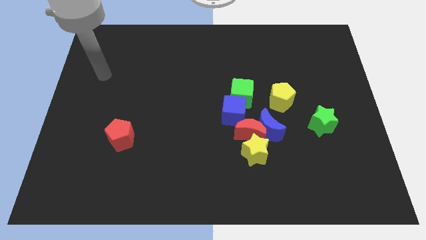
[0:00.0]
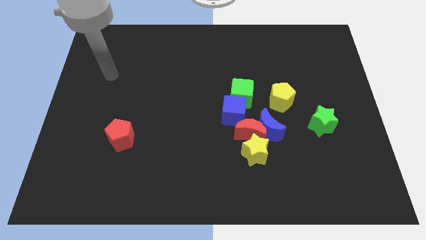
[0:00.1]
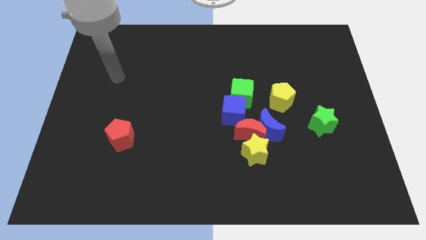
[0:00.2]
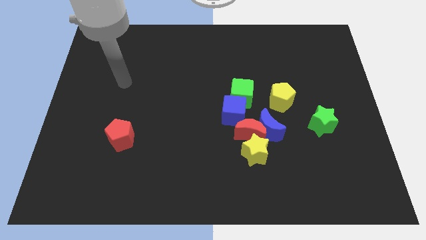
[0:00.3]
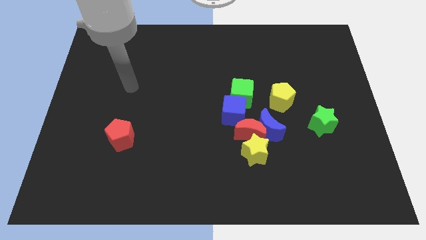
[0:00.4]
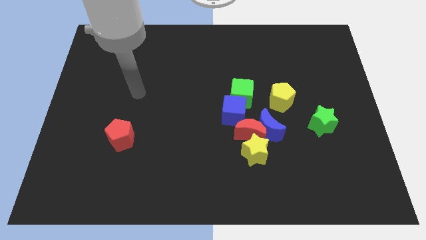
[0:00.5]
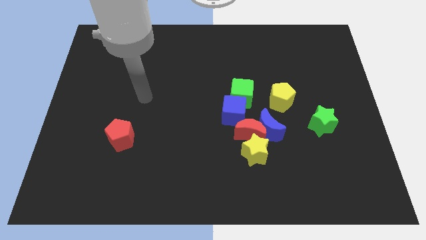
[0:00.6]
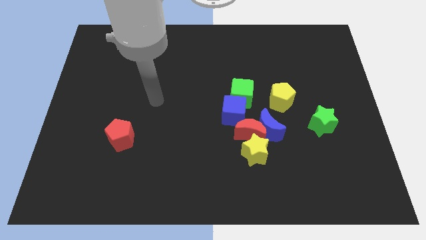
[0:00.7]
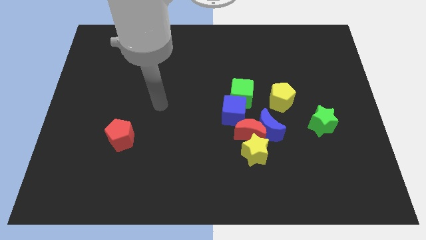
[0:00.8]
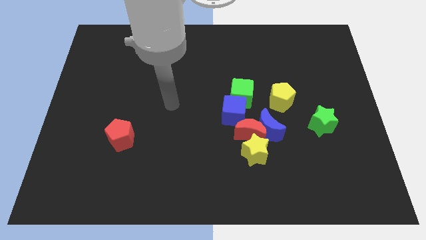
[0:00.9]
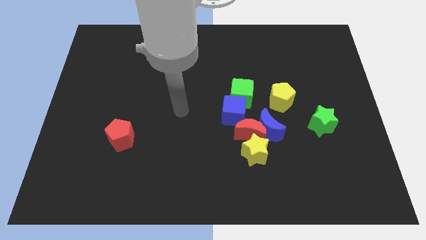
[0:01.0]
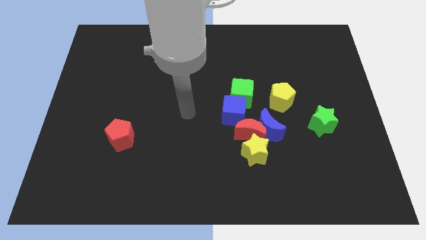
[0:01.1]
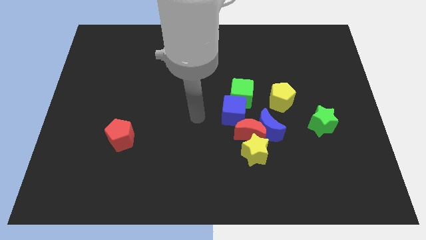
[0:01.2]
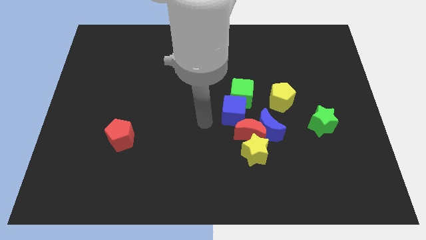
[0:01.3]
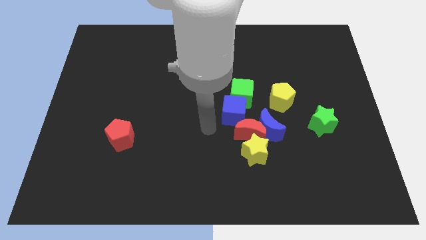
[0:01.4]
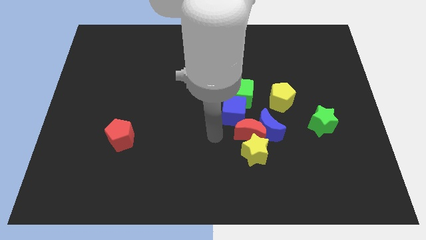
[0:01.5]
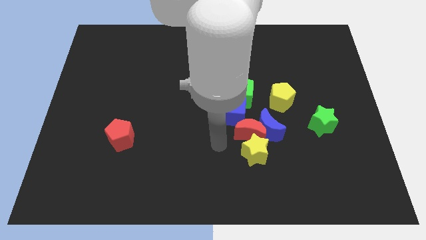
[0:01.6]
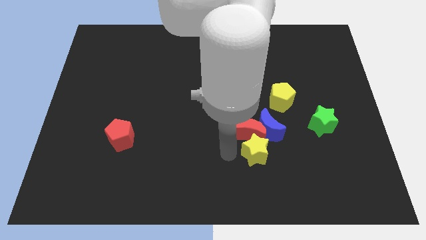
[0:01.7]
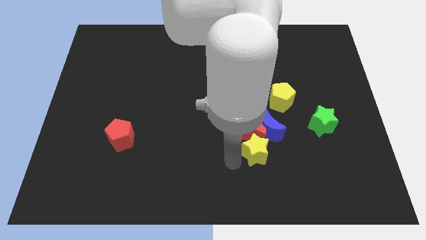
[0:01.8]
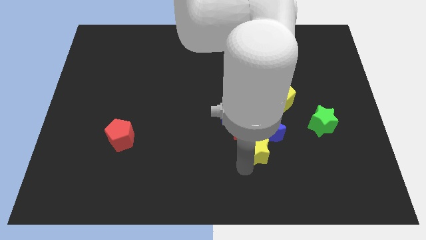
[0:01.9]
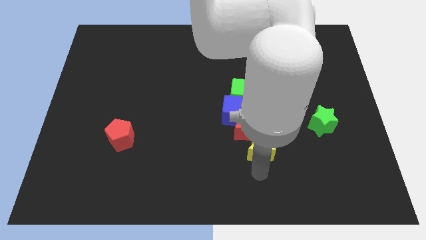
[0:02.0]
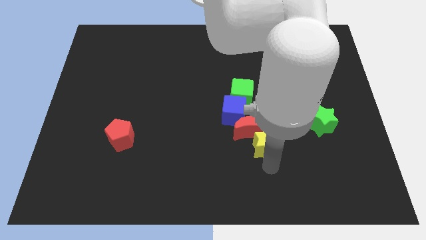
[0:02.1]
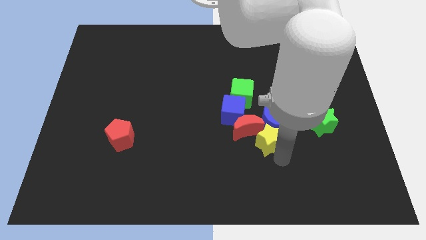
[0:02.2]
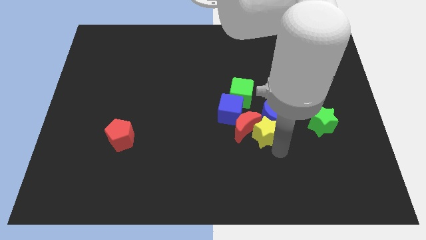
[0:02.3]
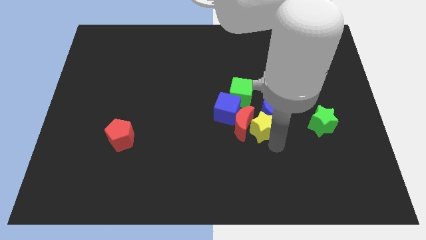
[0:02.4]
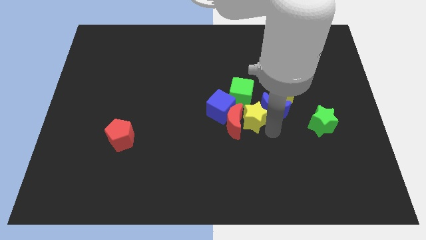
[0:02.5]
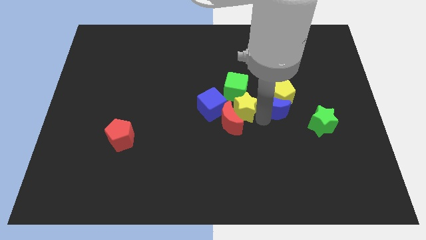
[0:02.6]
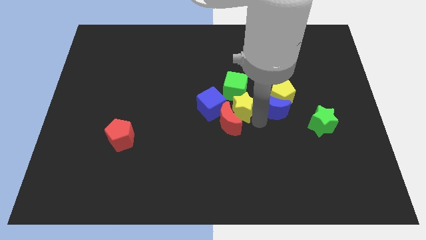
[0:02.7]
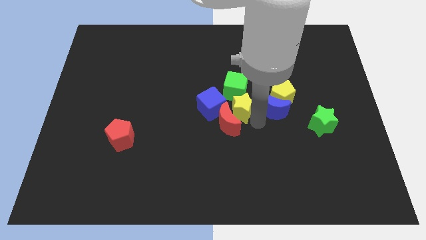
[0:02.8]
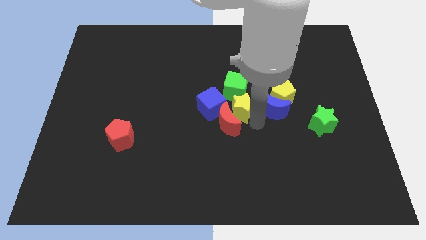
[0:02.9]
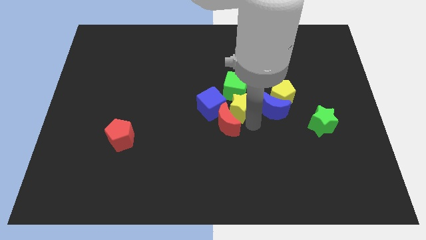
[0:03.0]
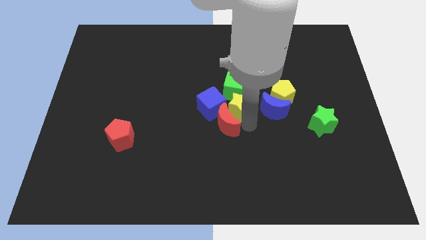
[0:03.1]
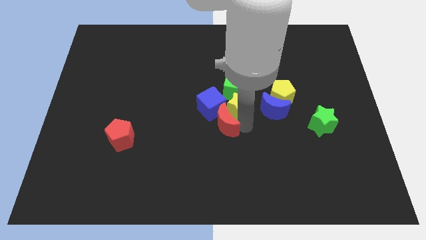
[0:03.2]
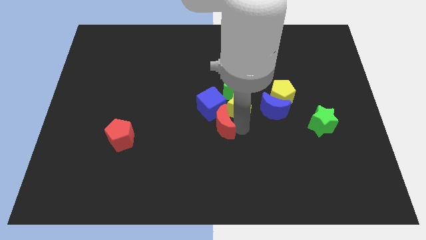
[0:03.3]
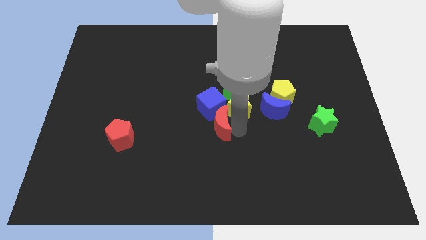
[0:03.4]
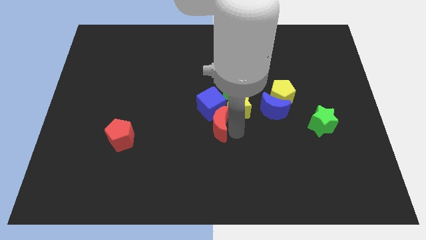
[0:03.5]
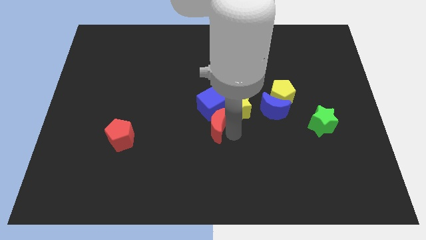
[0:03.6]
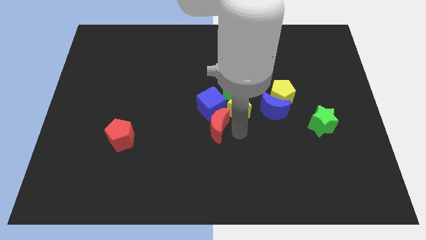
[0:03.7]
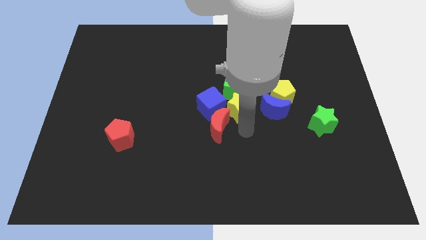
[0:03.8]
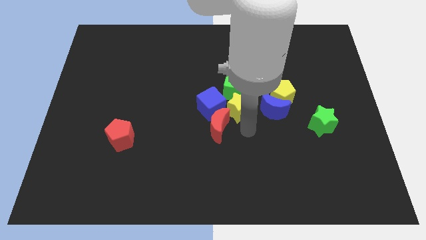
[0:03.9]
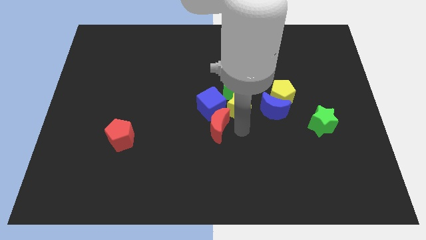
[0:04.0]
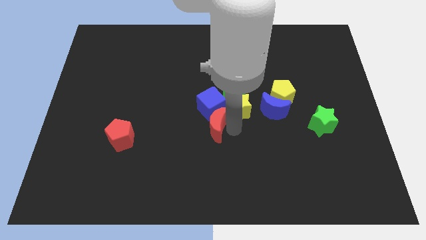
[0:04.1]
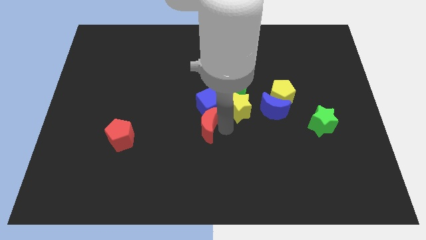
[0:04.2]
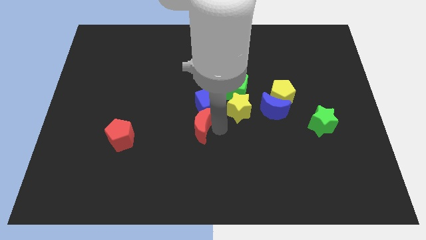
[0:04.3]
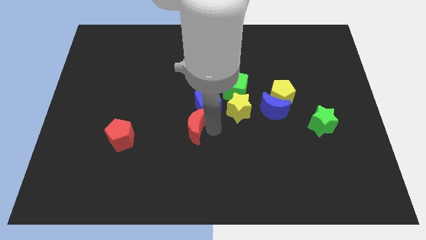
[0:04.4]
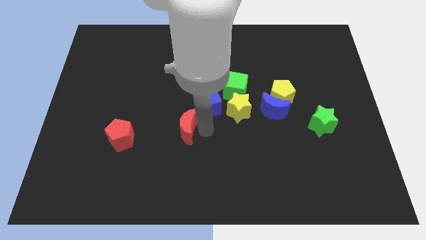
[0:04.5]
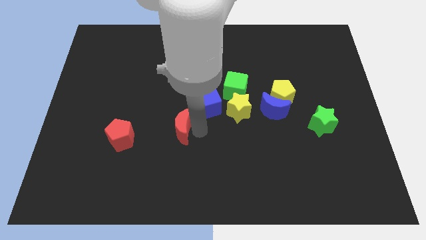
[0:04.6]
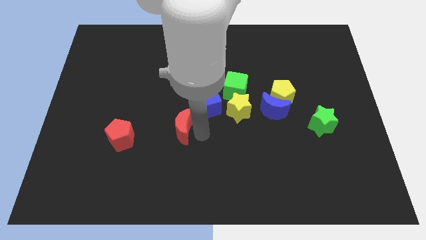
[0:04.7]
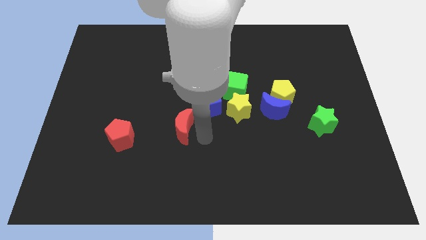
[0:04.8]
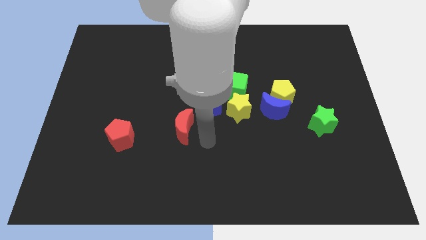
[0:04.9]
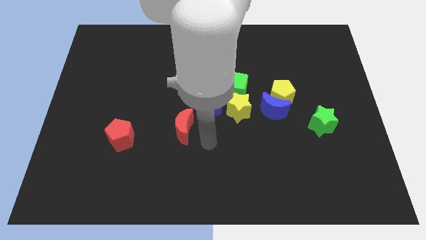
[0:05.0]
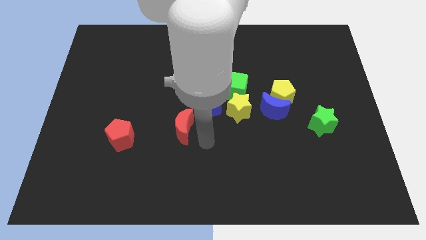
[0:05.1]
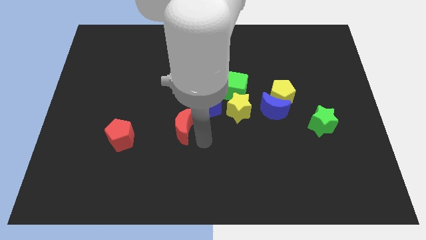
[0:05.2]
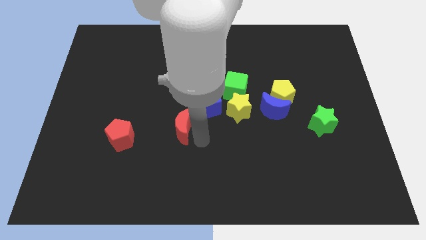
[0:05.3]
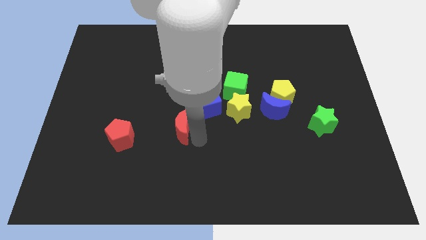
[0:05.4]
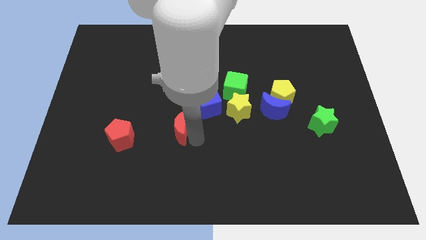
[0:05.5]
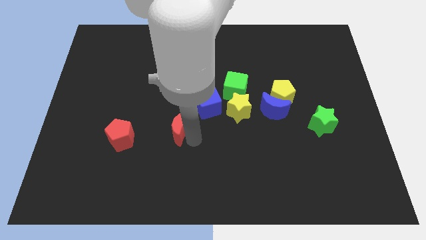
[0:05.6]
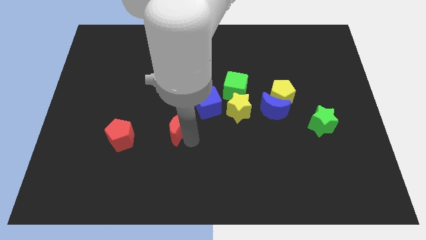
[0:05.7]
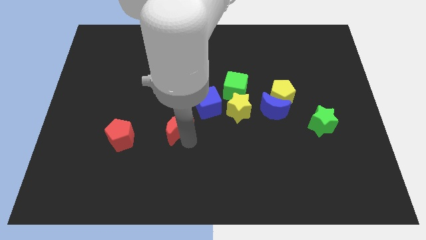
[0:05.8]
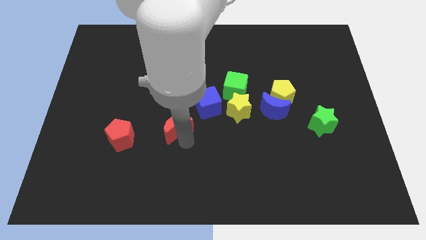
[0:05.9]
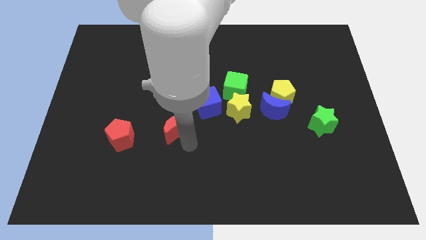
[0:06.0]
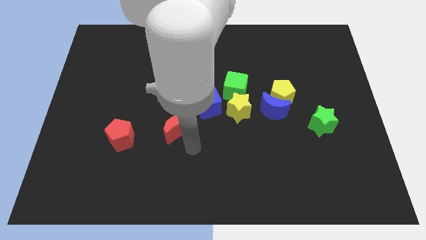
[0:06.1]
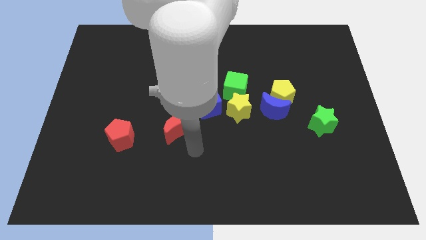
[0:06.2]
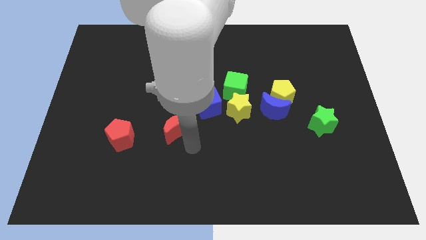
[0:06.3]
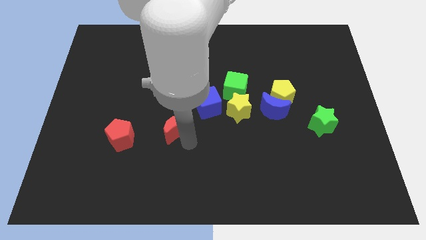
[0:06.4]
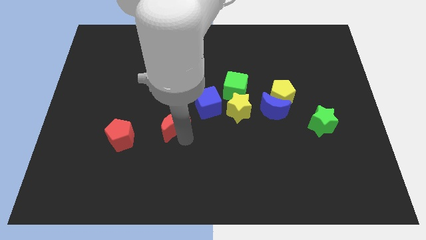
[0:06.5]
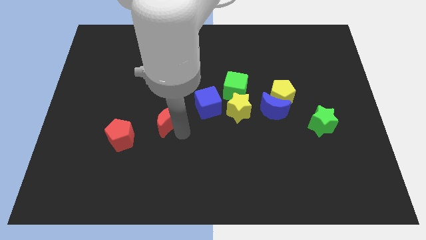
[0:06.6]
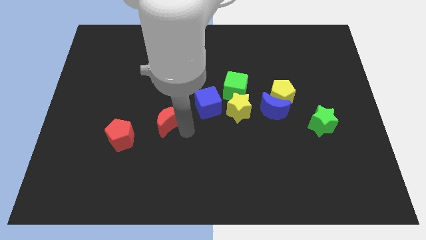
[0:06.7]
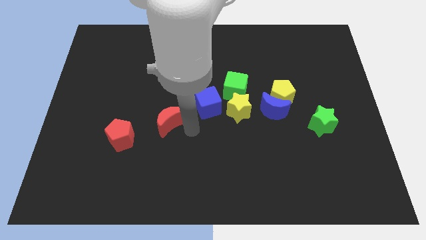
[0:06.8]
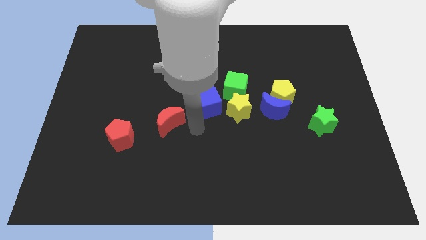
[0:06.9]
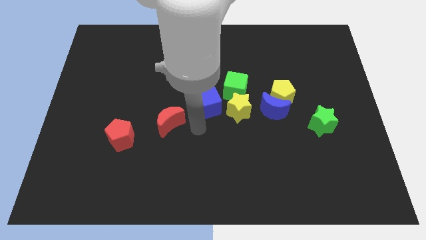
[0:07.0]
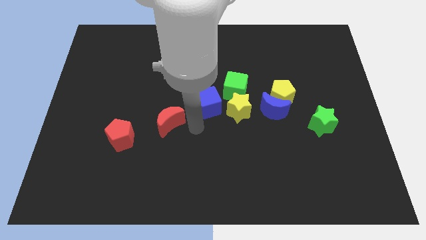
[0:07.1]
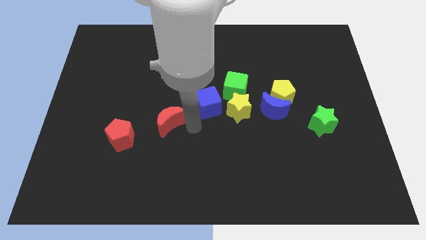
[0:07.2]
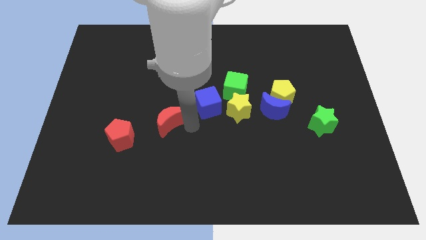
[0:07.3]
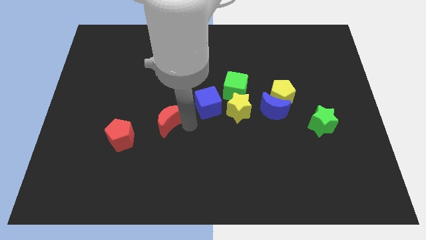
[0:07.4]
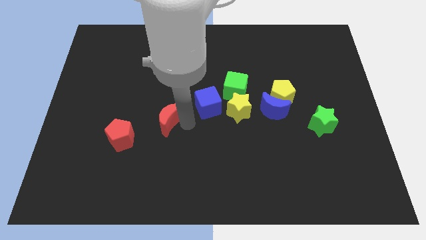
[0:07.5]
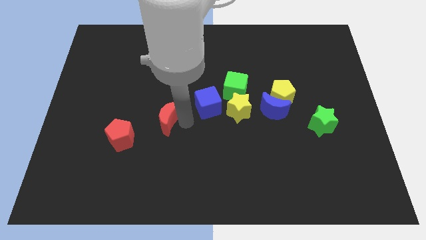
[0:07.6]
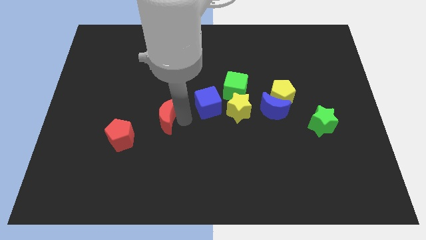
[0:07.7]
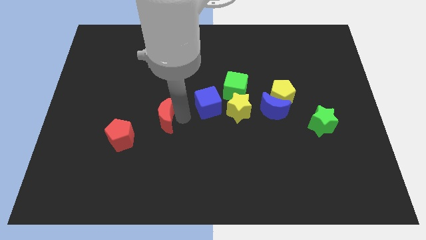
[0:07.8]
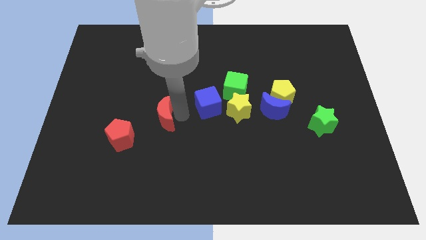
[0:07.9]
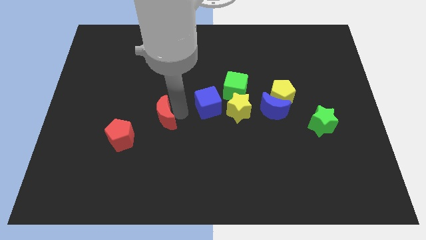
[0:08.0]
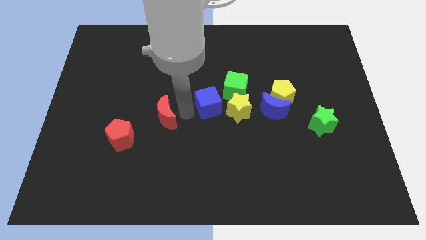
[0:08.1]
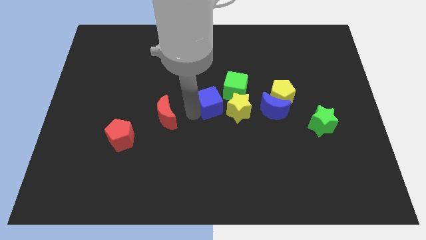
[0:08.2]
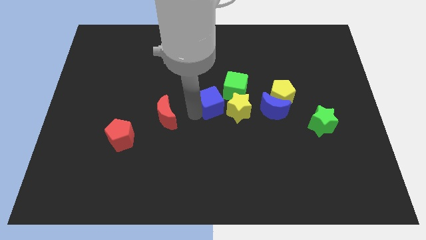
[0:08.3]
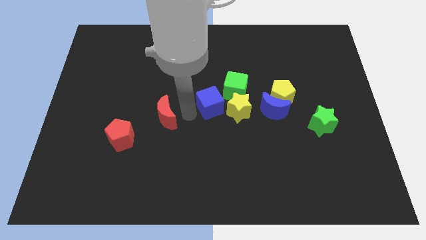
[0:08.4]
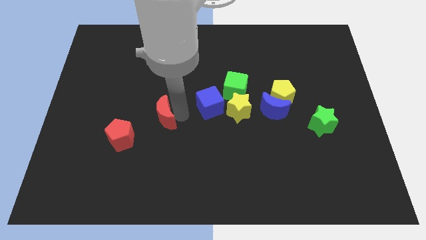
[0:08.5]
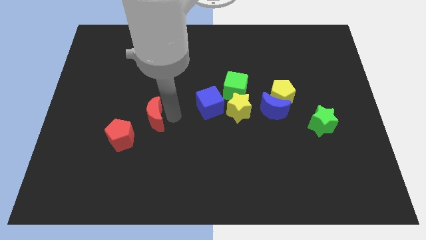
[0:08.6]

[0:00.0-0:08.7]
slide the red moon left
